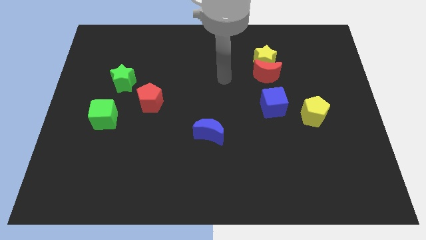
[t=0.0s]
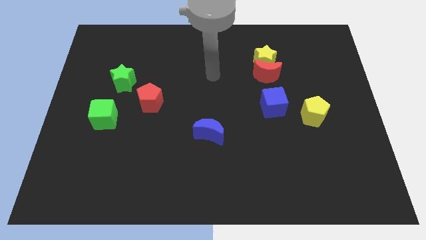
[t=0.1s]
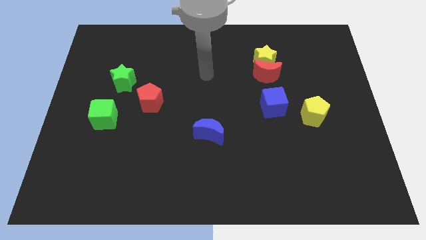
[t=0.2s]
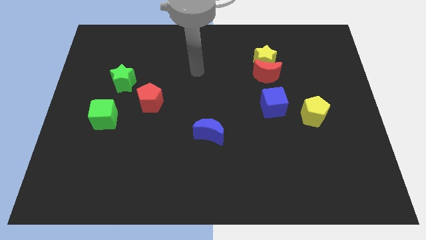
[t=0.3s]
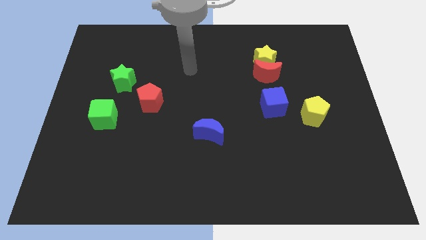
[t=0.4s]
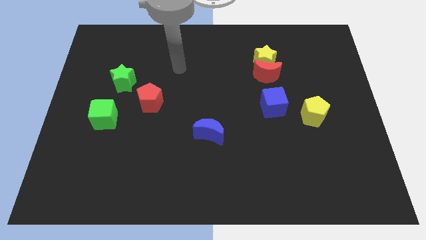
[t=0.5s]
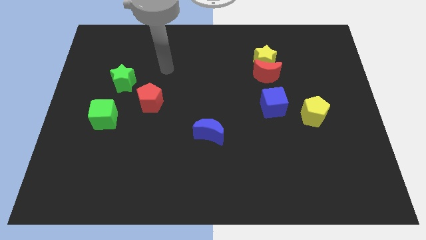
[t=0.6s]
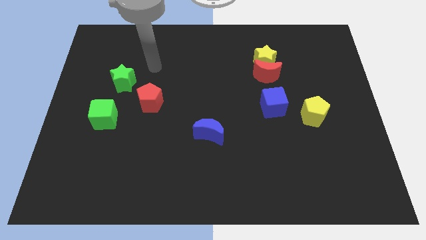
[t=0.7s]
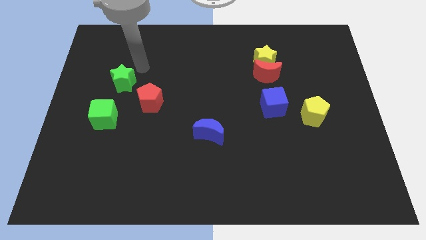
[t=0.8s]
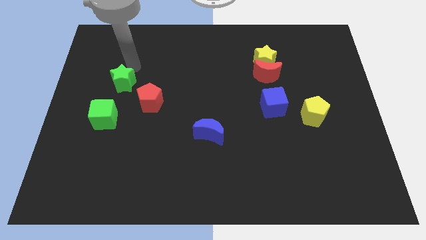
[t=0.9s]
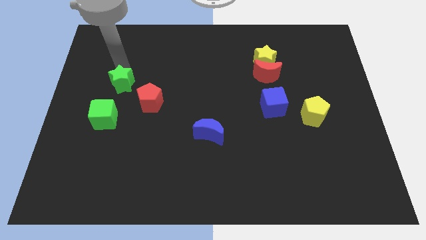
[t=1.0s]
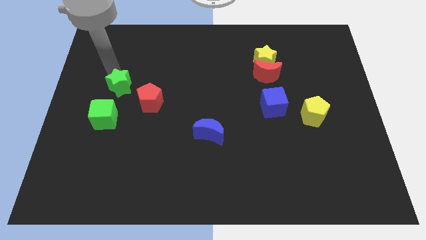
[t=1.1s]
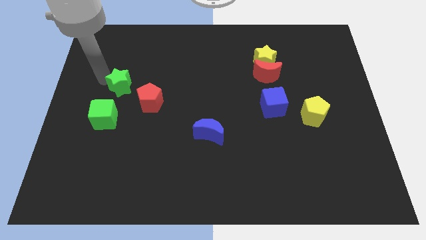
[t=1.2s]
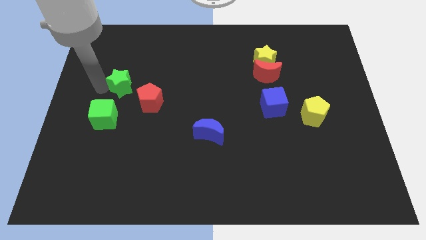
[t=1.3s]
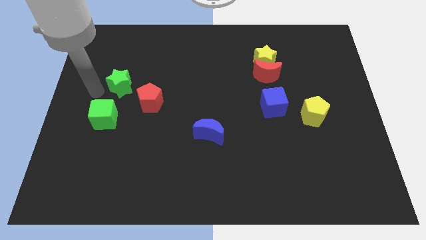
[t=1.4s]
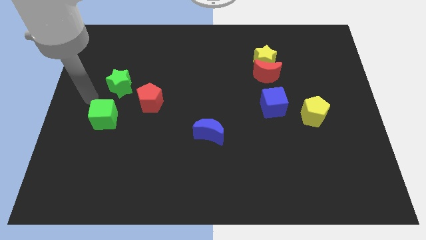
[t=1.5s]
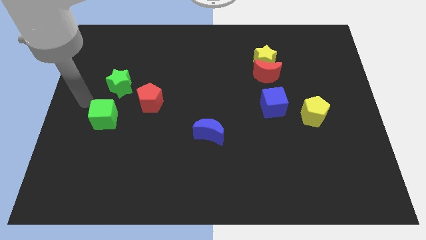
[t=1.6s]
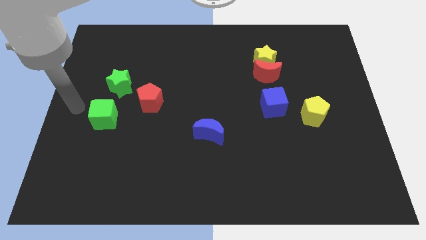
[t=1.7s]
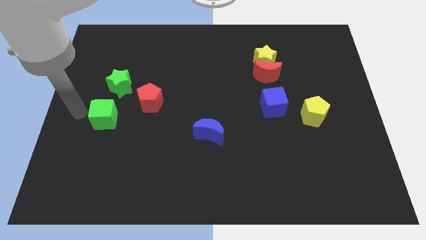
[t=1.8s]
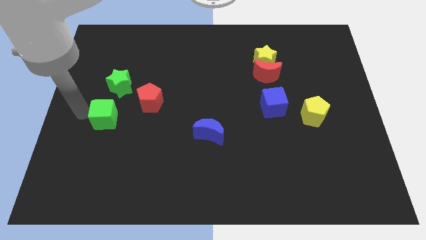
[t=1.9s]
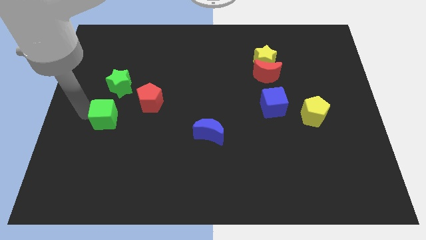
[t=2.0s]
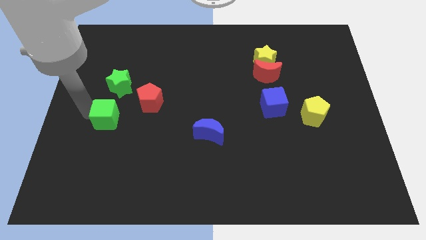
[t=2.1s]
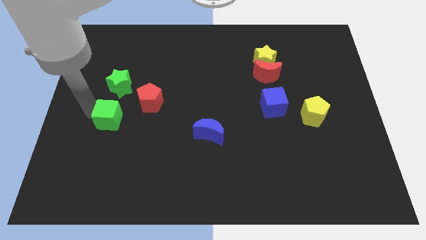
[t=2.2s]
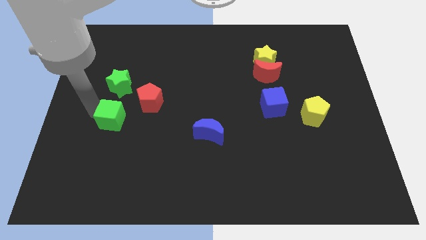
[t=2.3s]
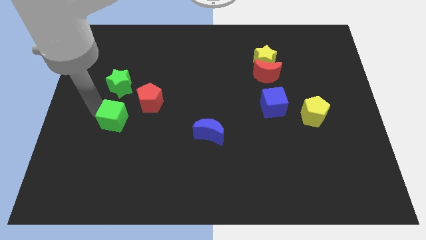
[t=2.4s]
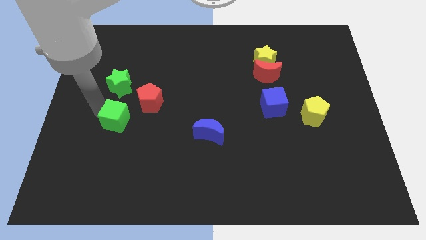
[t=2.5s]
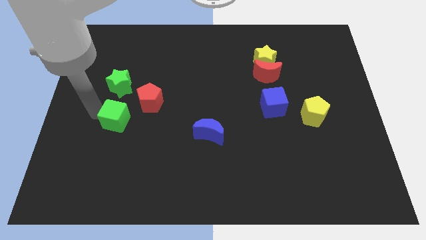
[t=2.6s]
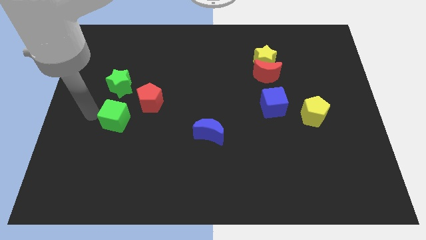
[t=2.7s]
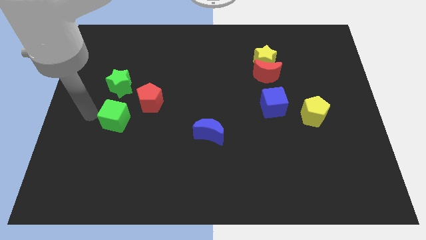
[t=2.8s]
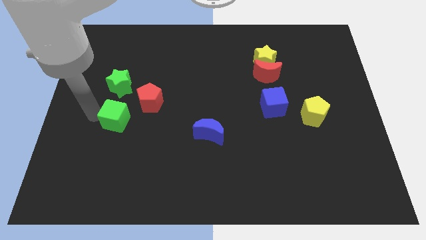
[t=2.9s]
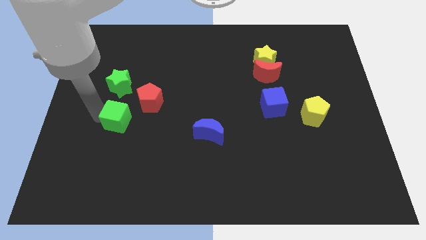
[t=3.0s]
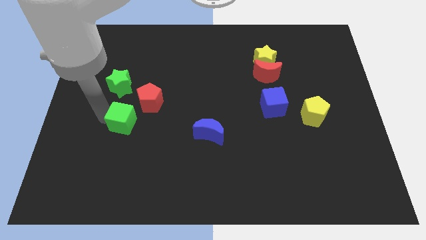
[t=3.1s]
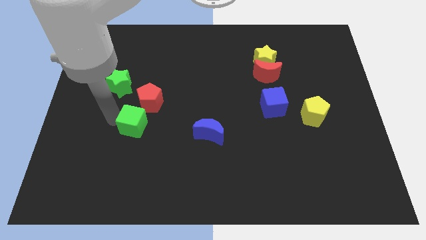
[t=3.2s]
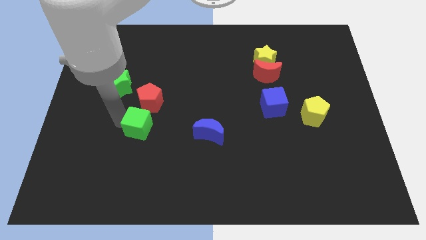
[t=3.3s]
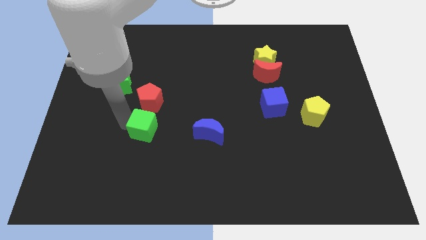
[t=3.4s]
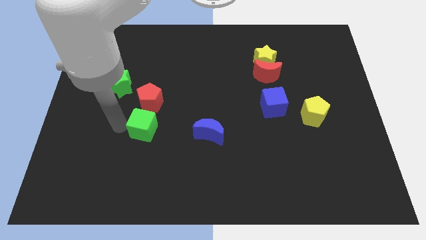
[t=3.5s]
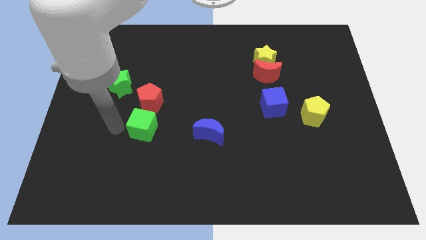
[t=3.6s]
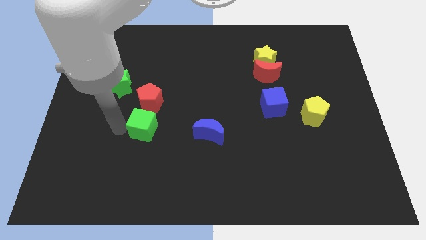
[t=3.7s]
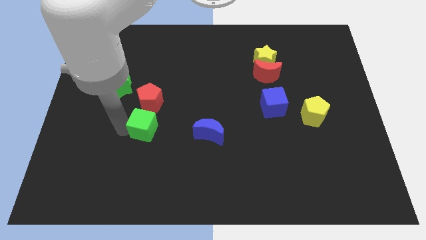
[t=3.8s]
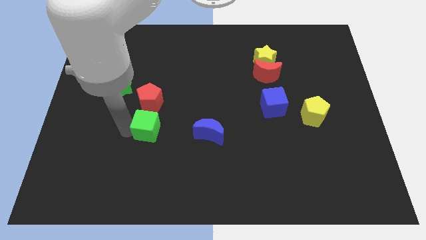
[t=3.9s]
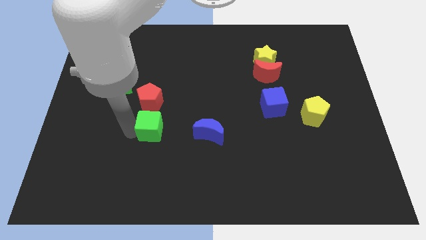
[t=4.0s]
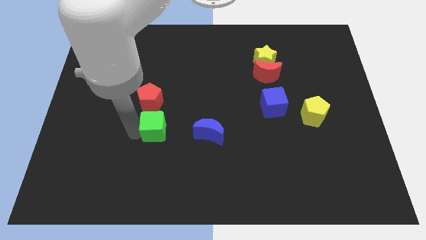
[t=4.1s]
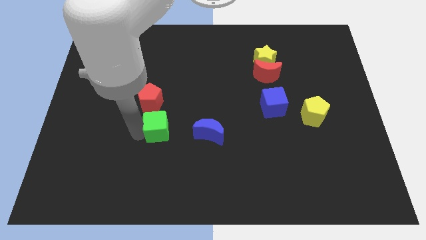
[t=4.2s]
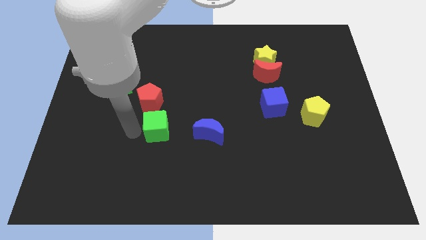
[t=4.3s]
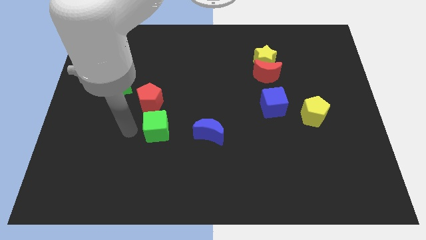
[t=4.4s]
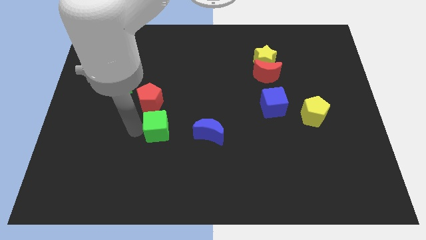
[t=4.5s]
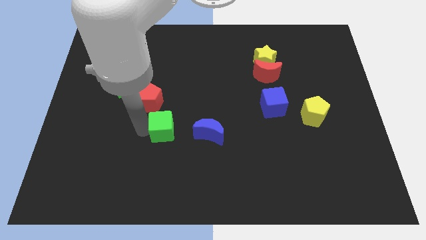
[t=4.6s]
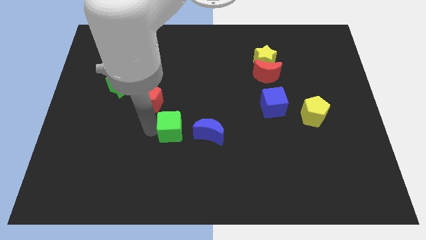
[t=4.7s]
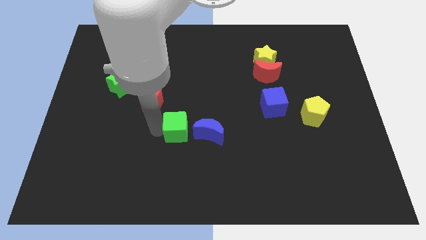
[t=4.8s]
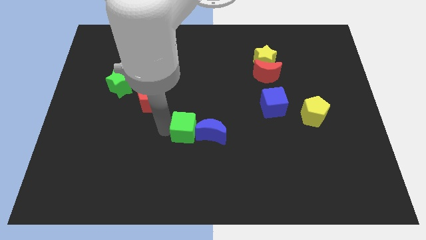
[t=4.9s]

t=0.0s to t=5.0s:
slide the green cube to the blue moon

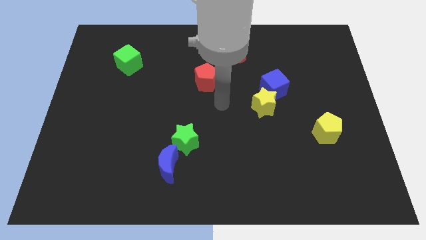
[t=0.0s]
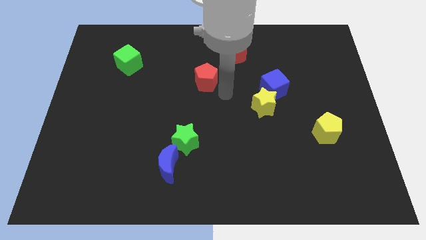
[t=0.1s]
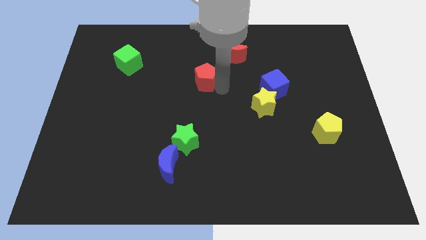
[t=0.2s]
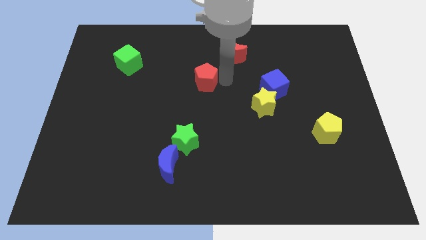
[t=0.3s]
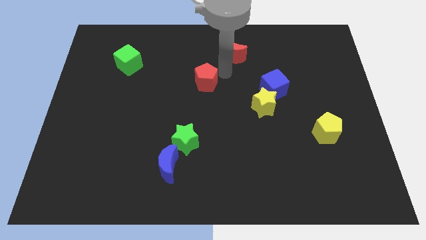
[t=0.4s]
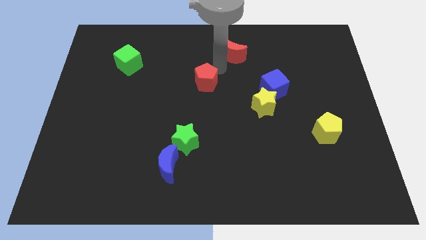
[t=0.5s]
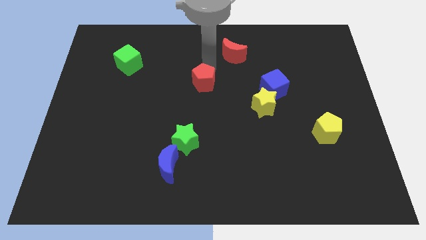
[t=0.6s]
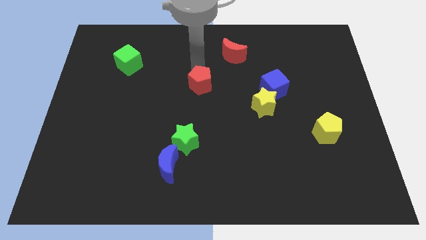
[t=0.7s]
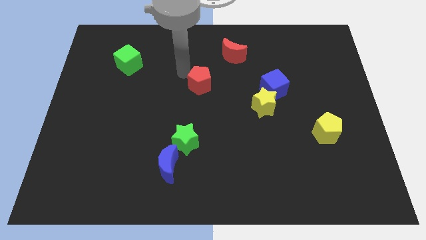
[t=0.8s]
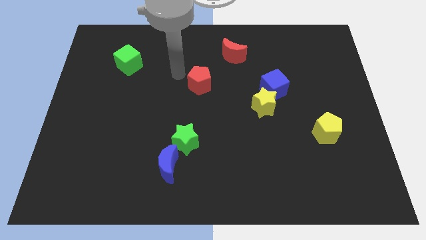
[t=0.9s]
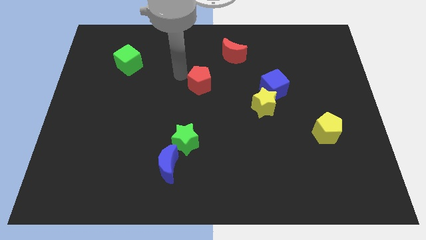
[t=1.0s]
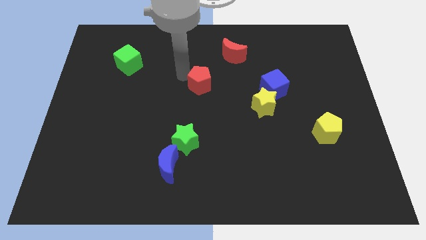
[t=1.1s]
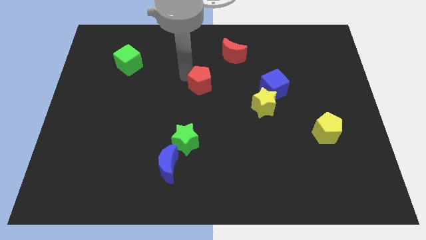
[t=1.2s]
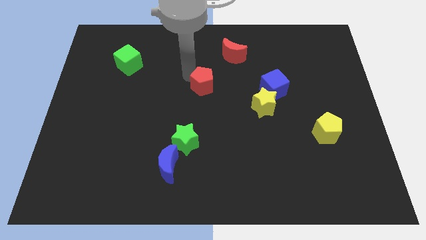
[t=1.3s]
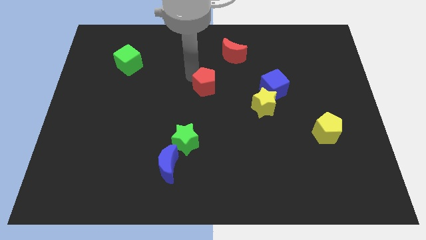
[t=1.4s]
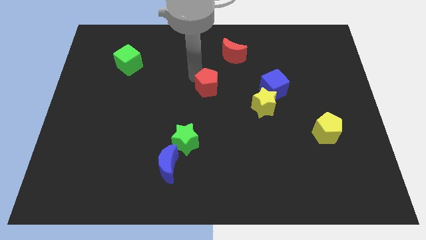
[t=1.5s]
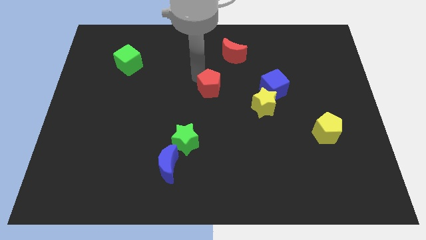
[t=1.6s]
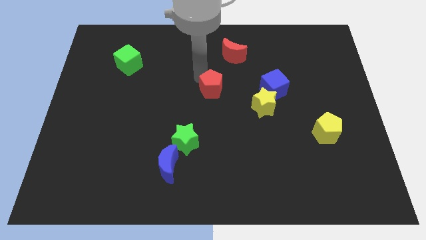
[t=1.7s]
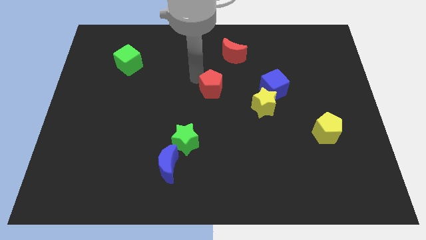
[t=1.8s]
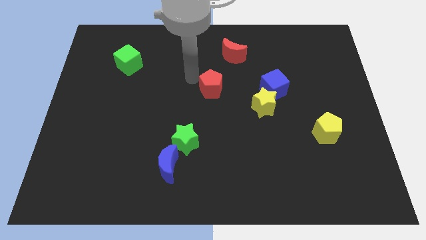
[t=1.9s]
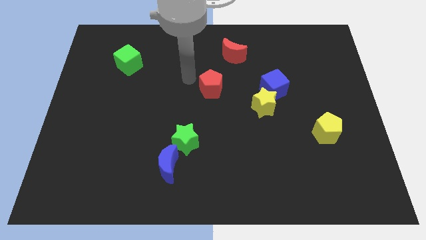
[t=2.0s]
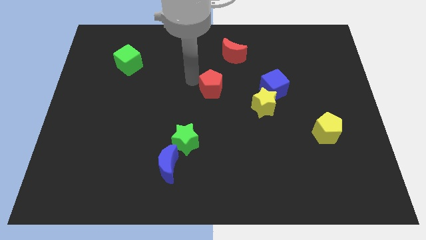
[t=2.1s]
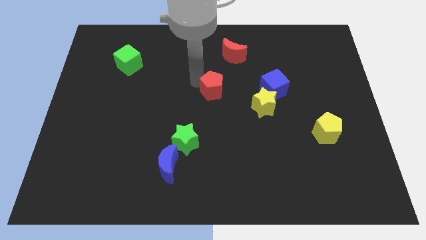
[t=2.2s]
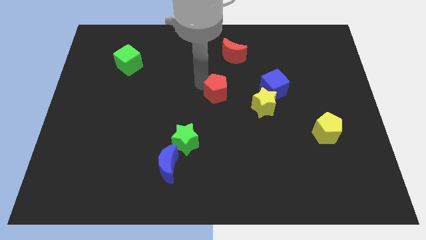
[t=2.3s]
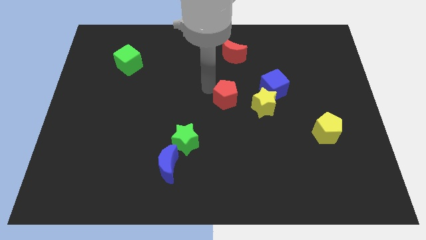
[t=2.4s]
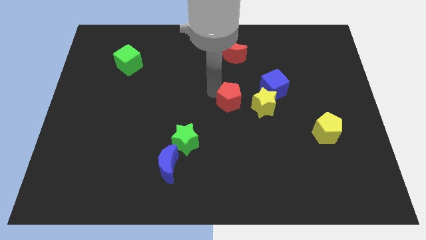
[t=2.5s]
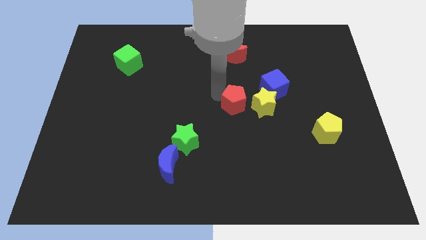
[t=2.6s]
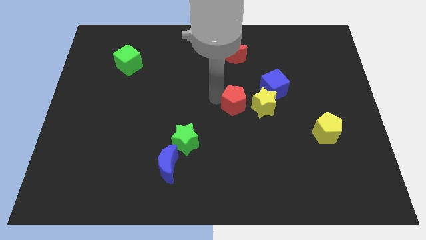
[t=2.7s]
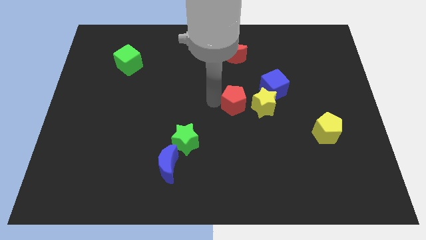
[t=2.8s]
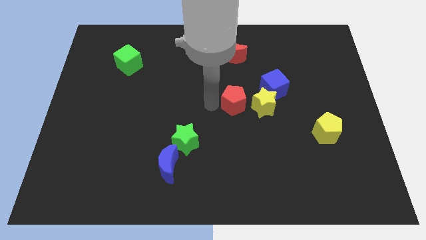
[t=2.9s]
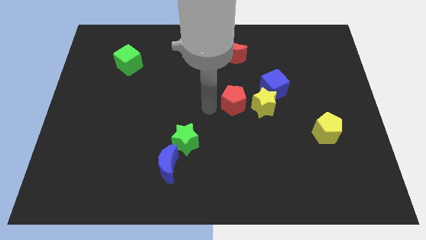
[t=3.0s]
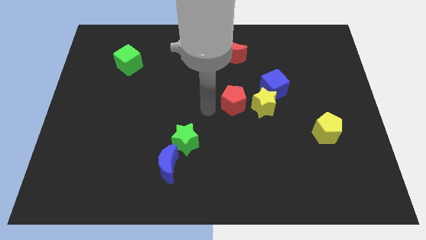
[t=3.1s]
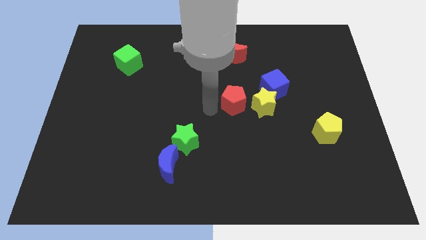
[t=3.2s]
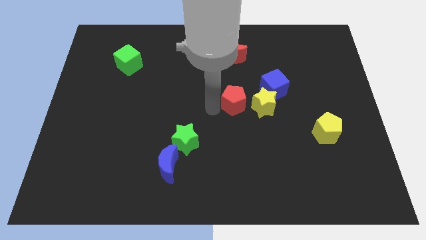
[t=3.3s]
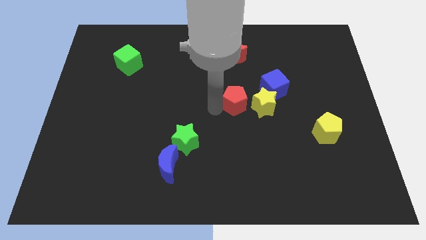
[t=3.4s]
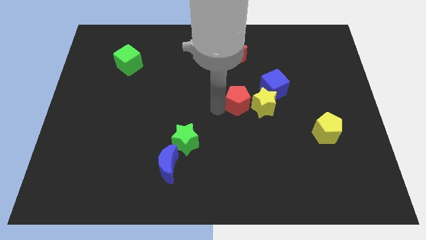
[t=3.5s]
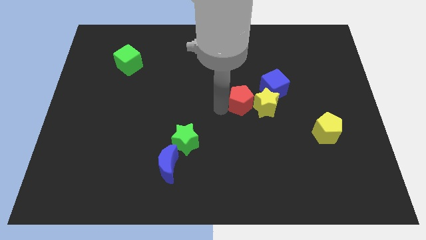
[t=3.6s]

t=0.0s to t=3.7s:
put the red pentagon next to the yellow star
